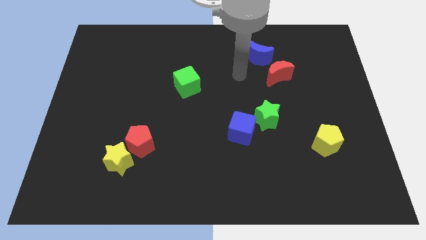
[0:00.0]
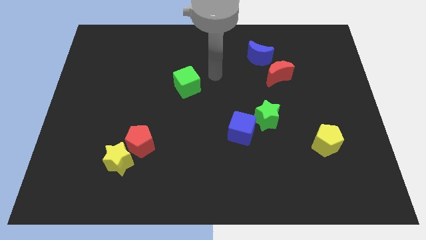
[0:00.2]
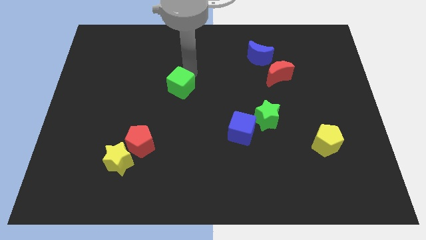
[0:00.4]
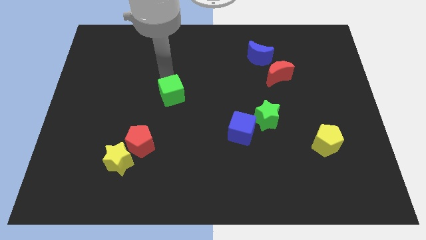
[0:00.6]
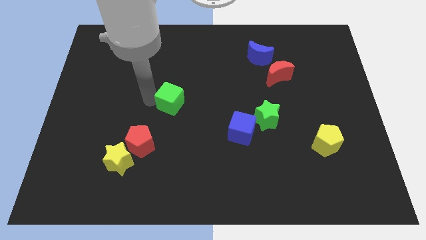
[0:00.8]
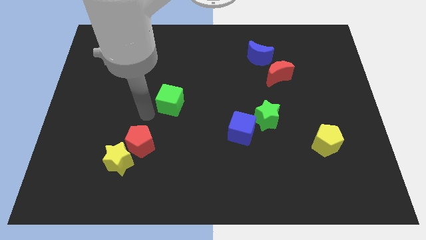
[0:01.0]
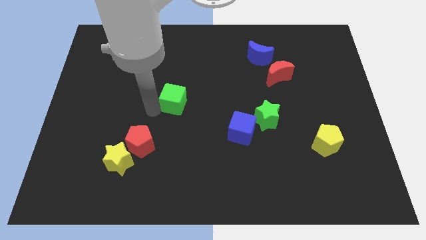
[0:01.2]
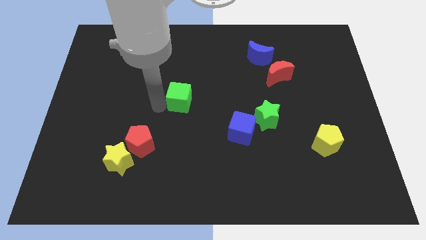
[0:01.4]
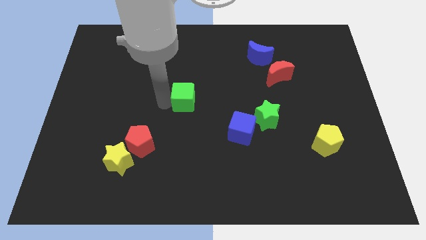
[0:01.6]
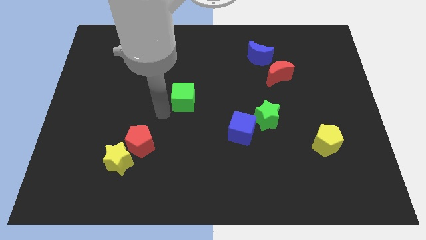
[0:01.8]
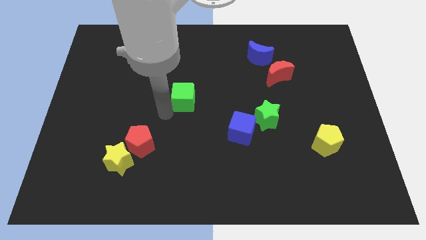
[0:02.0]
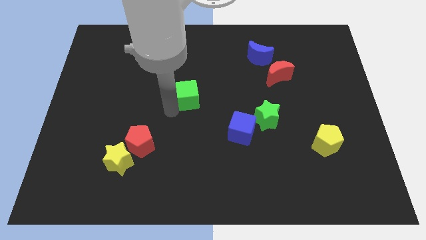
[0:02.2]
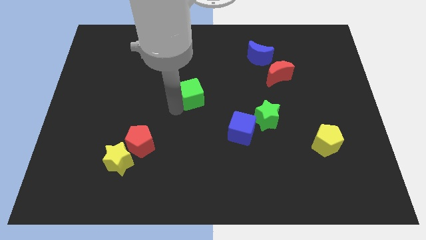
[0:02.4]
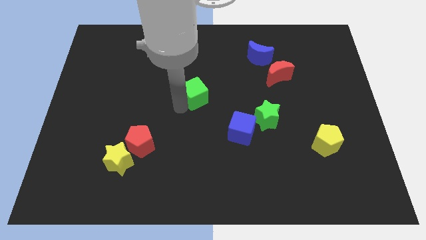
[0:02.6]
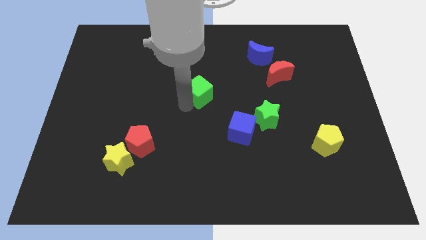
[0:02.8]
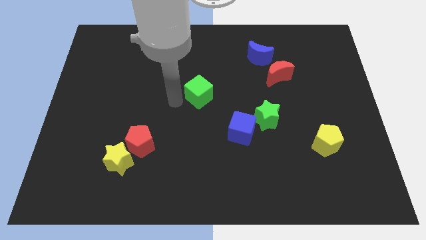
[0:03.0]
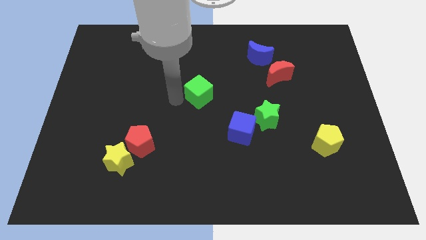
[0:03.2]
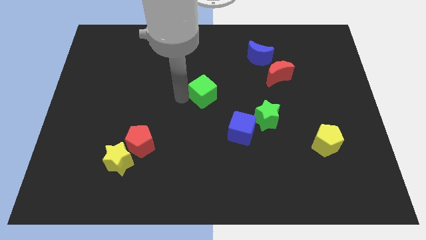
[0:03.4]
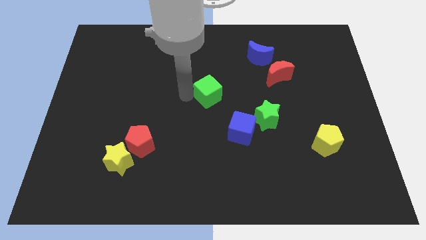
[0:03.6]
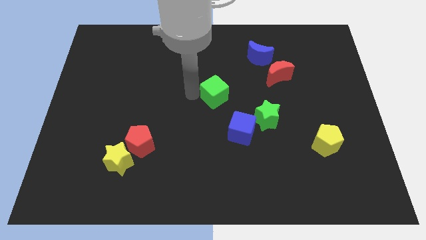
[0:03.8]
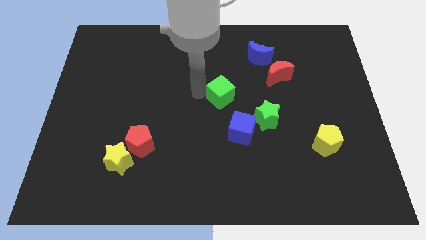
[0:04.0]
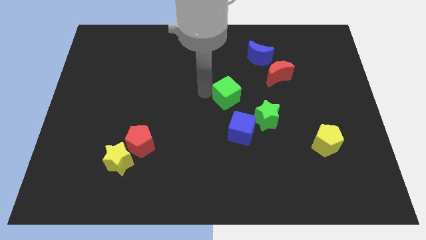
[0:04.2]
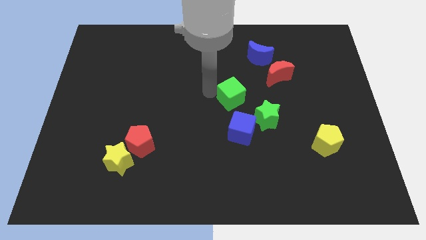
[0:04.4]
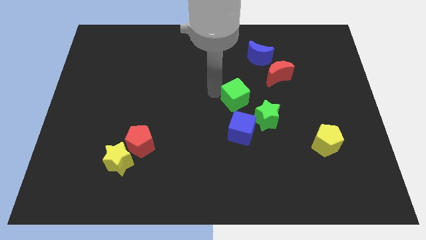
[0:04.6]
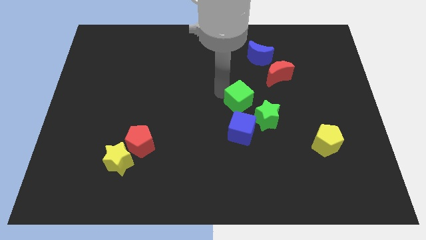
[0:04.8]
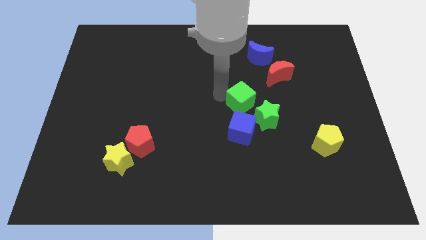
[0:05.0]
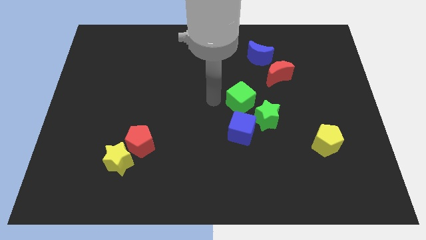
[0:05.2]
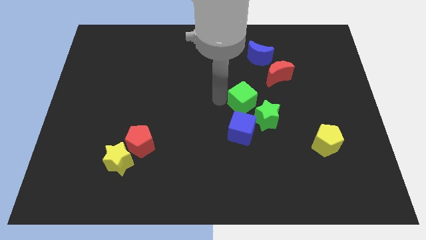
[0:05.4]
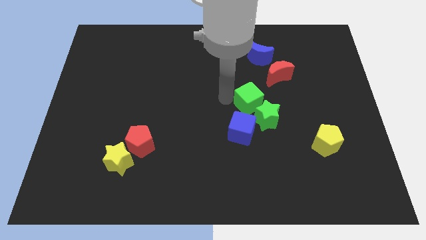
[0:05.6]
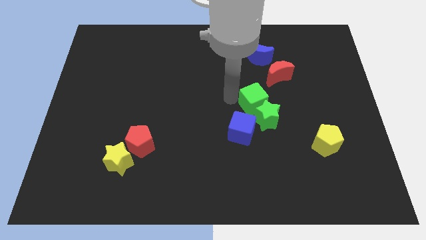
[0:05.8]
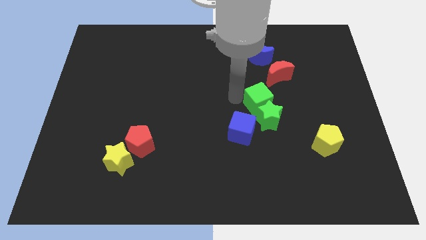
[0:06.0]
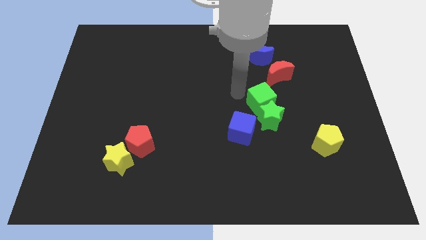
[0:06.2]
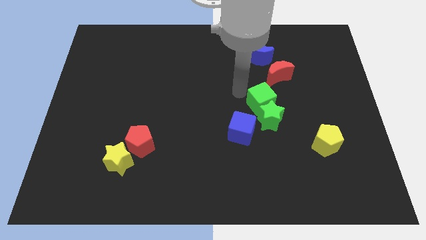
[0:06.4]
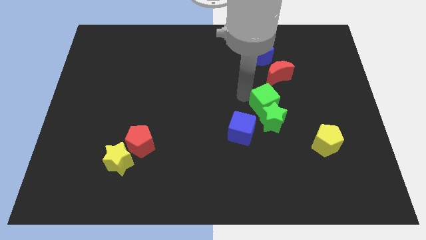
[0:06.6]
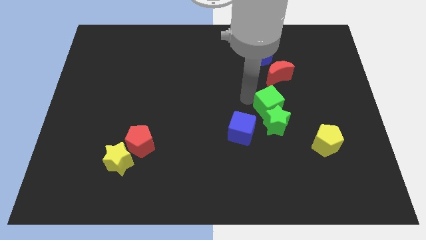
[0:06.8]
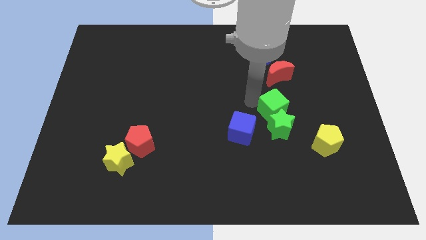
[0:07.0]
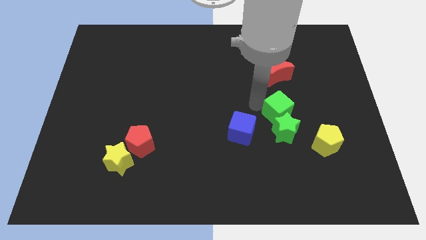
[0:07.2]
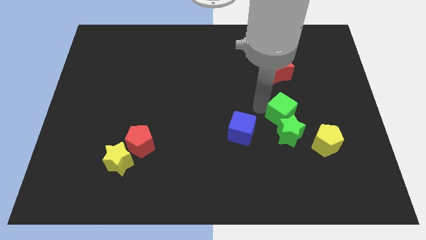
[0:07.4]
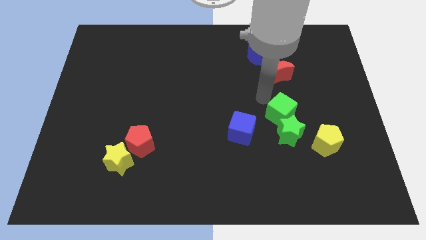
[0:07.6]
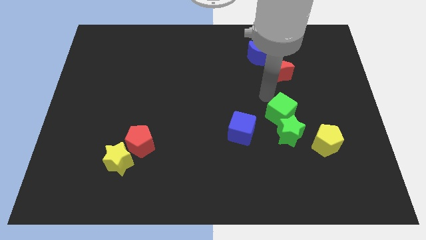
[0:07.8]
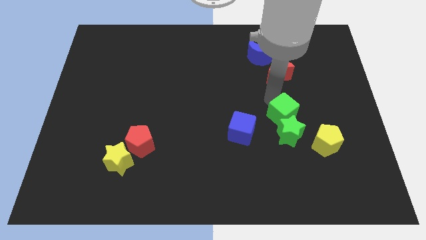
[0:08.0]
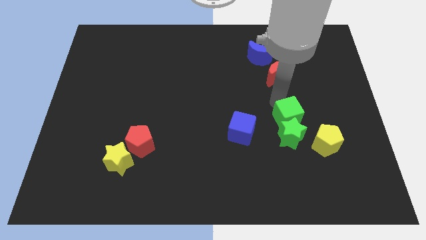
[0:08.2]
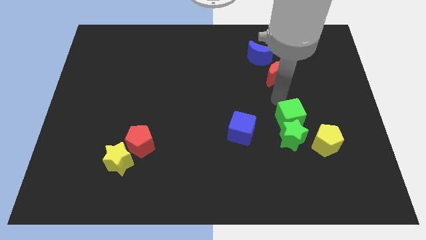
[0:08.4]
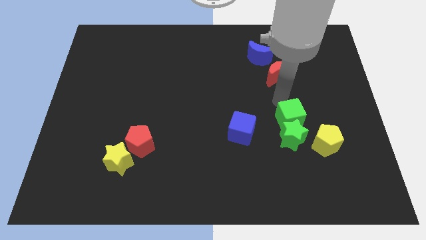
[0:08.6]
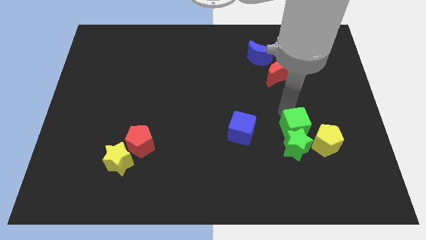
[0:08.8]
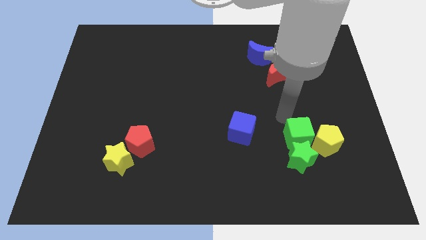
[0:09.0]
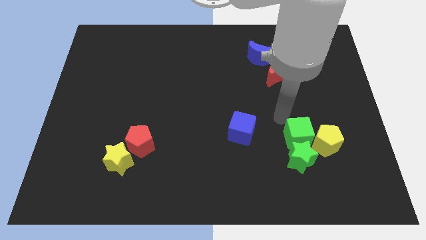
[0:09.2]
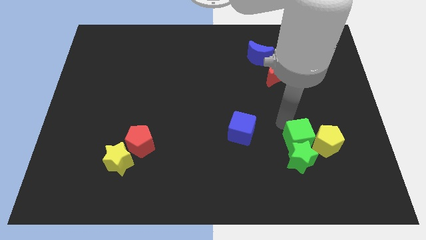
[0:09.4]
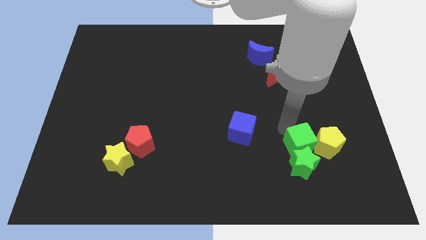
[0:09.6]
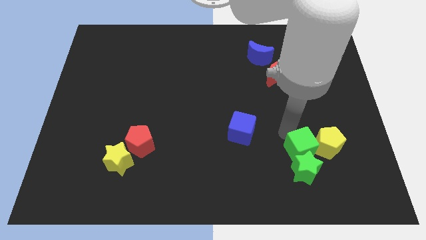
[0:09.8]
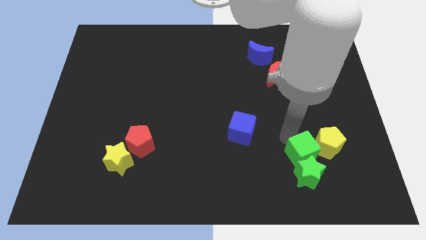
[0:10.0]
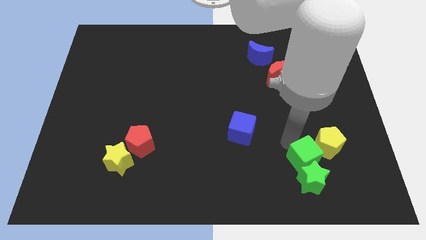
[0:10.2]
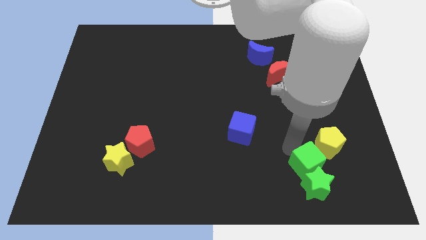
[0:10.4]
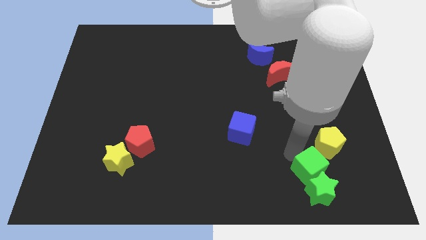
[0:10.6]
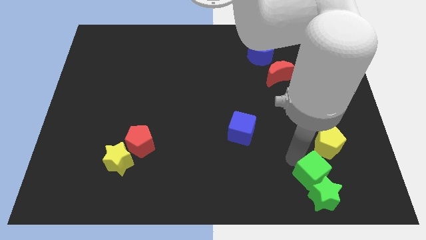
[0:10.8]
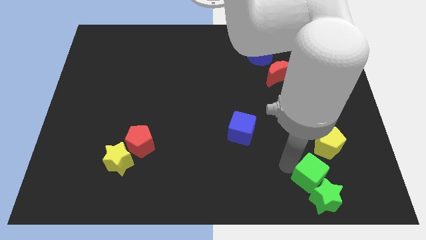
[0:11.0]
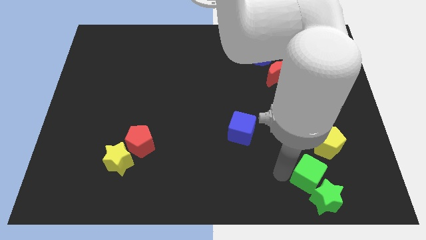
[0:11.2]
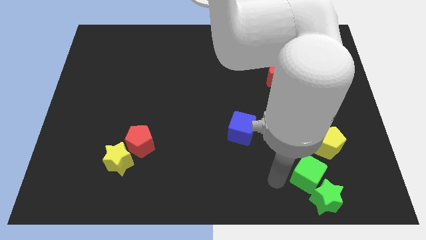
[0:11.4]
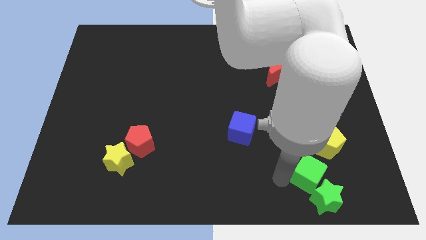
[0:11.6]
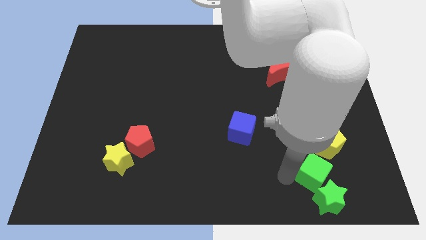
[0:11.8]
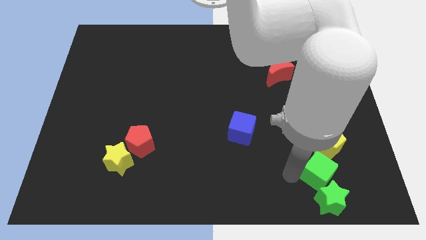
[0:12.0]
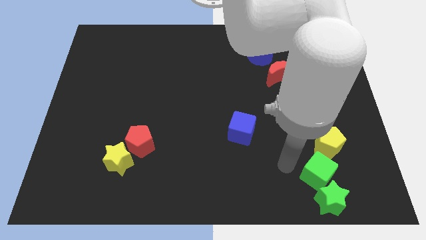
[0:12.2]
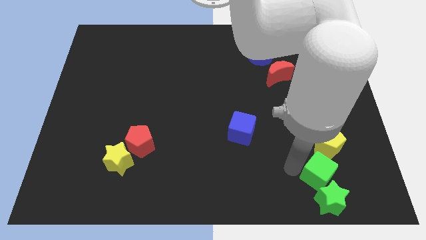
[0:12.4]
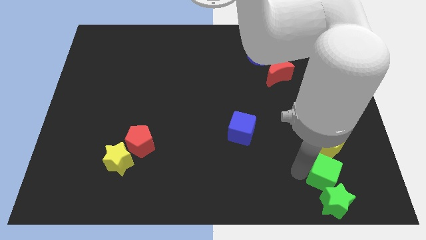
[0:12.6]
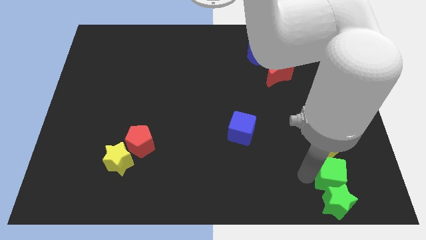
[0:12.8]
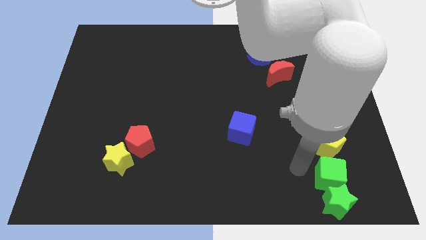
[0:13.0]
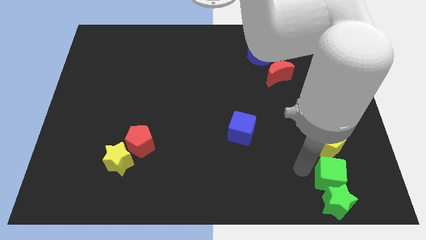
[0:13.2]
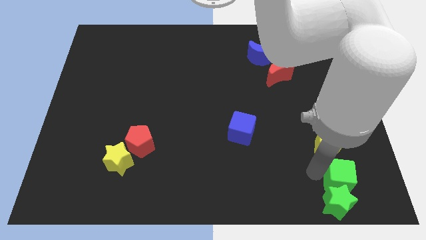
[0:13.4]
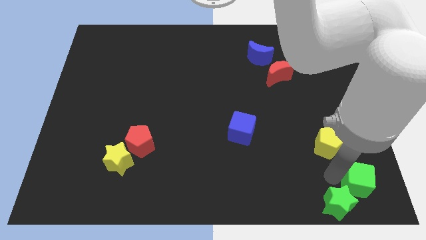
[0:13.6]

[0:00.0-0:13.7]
slide the green cube to the lower right corner
